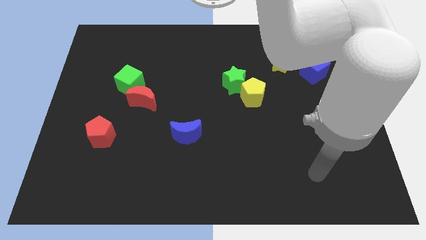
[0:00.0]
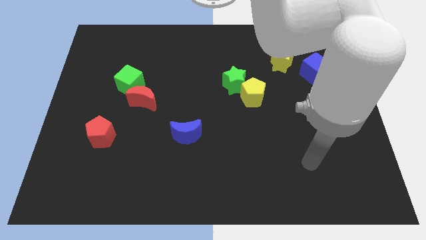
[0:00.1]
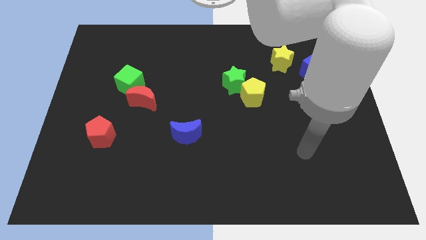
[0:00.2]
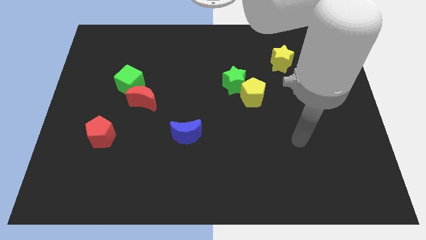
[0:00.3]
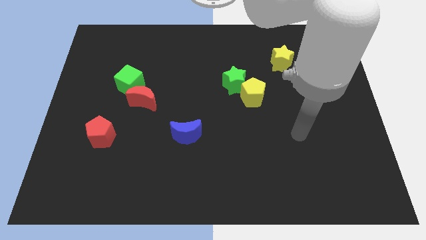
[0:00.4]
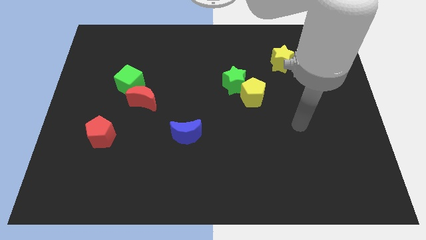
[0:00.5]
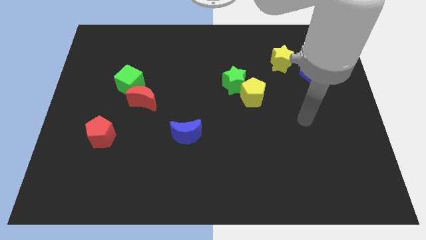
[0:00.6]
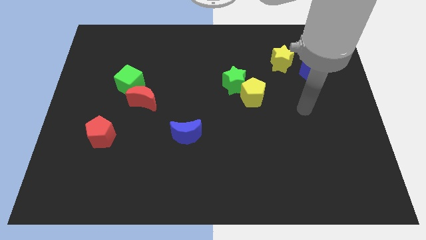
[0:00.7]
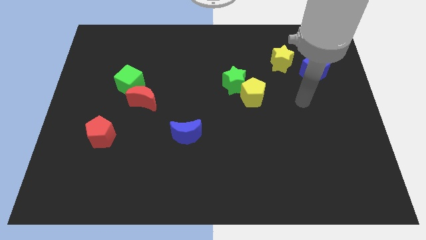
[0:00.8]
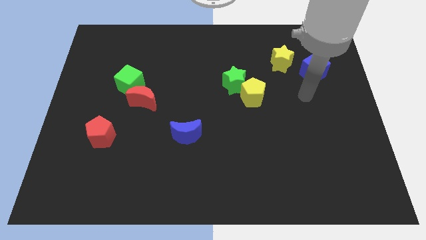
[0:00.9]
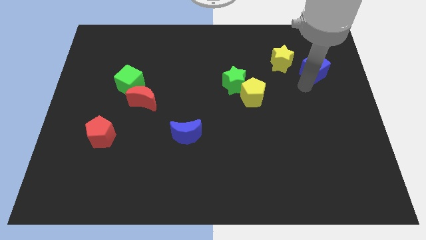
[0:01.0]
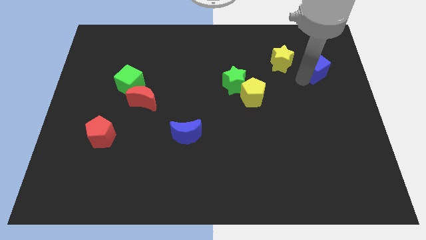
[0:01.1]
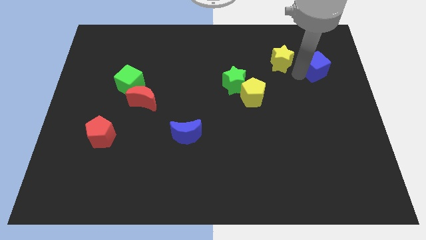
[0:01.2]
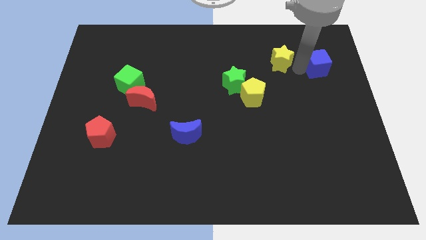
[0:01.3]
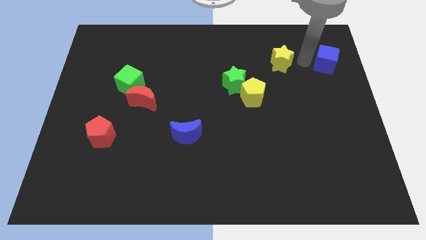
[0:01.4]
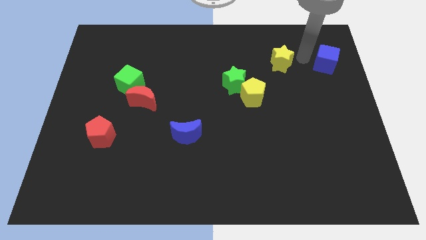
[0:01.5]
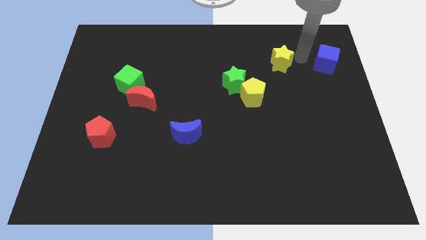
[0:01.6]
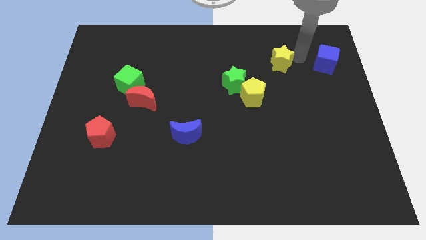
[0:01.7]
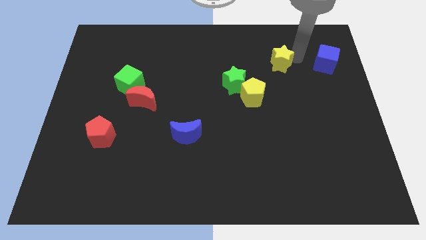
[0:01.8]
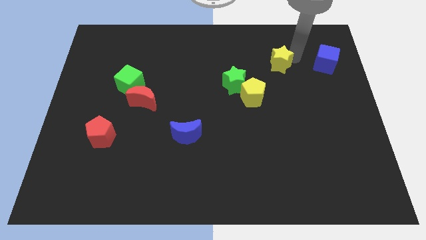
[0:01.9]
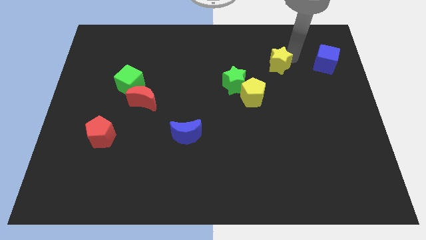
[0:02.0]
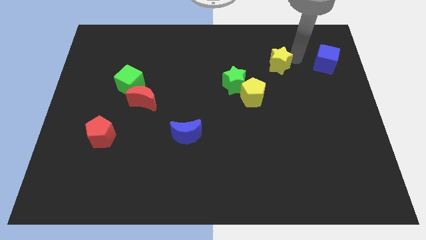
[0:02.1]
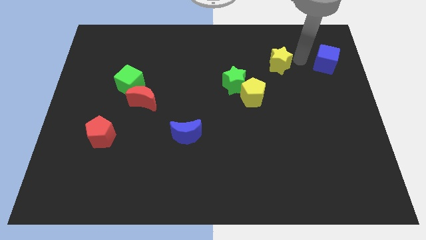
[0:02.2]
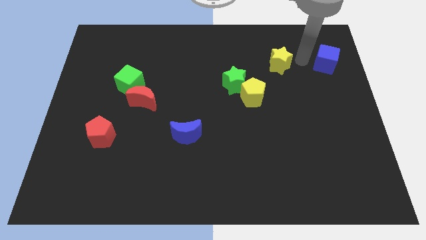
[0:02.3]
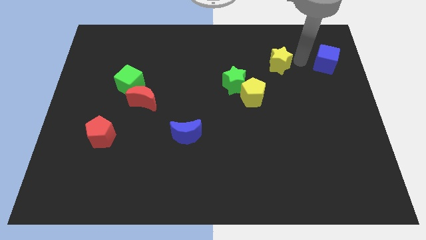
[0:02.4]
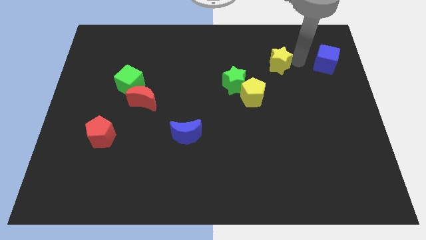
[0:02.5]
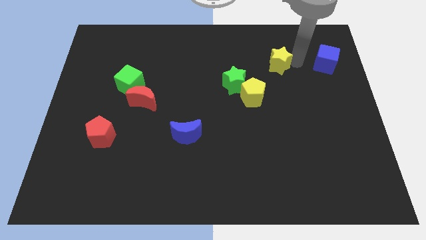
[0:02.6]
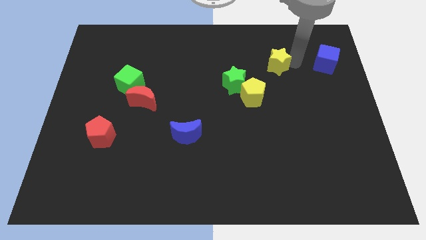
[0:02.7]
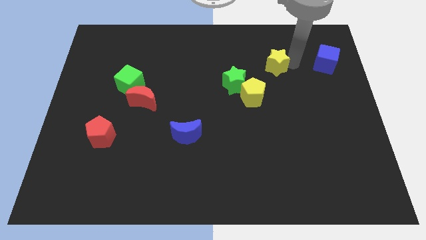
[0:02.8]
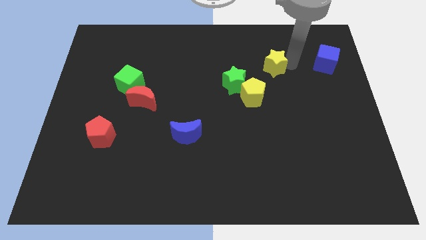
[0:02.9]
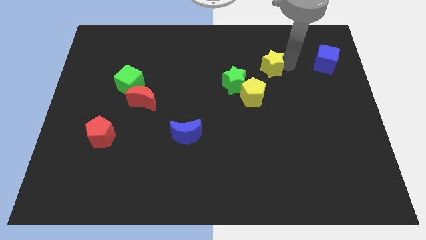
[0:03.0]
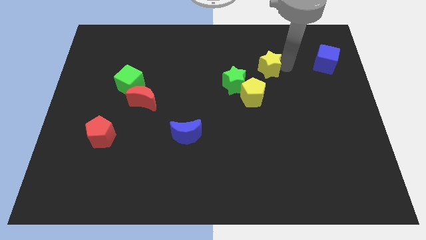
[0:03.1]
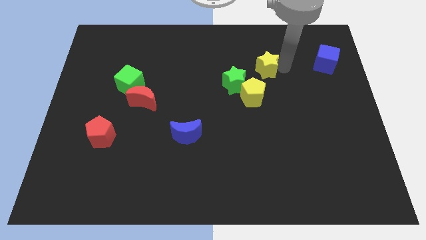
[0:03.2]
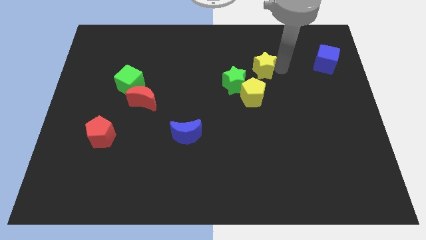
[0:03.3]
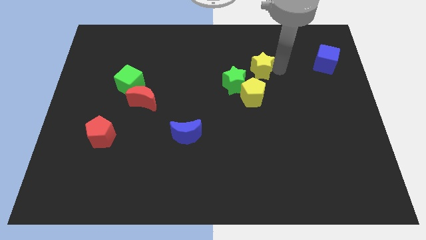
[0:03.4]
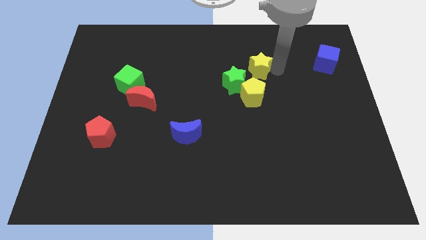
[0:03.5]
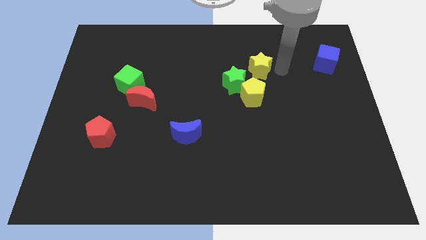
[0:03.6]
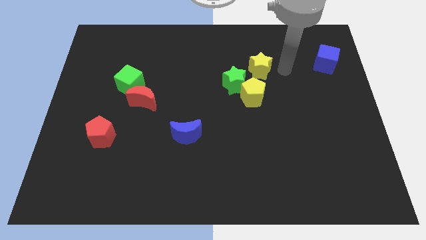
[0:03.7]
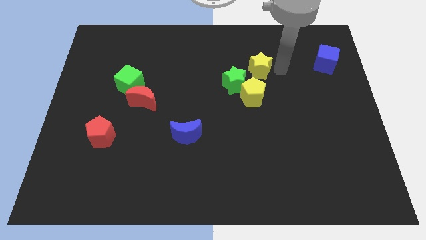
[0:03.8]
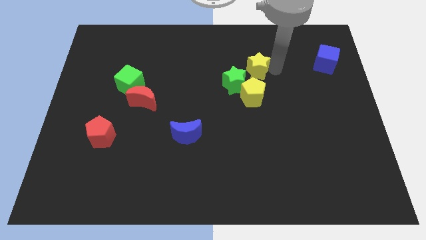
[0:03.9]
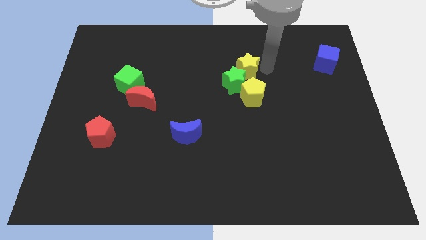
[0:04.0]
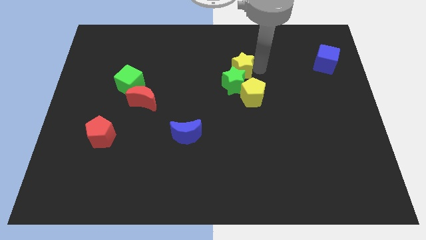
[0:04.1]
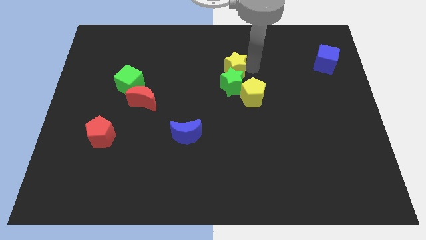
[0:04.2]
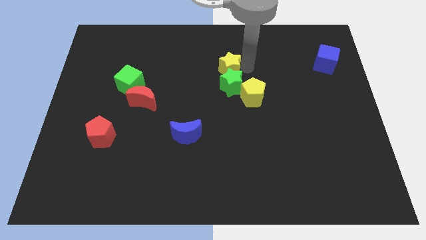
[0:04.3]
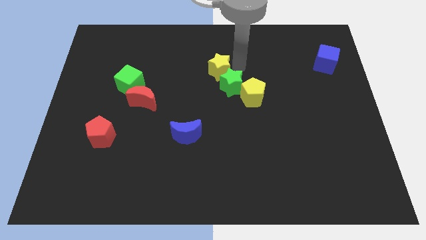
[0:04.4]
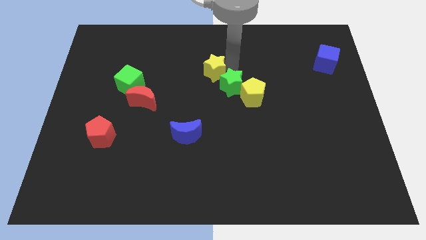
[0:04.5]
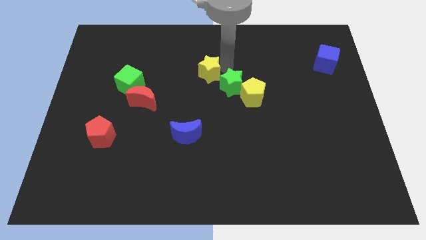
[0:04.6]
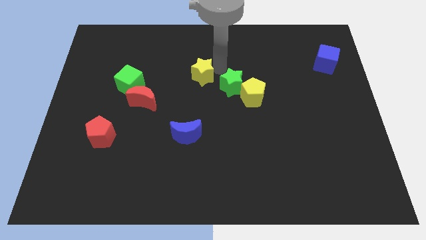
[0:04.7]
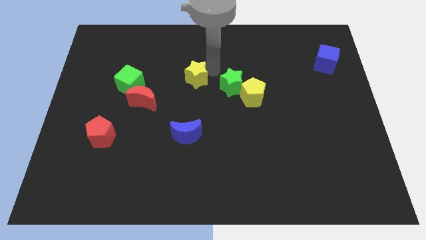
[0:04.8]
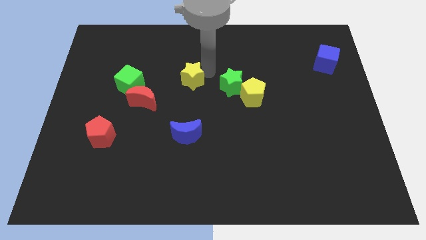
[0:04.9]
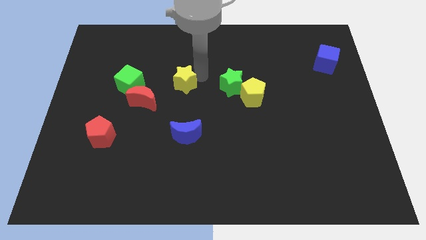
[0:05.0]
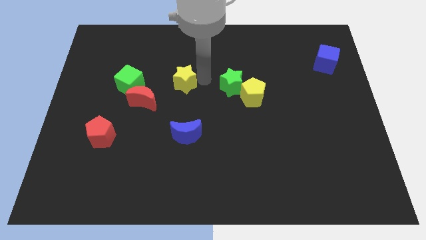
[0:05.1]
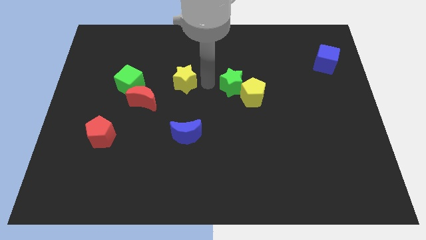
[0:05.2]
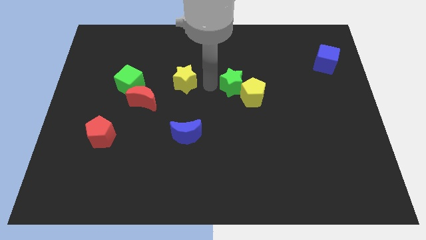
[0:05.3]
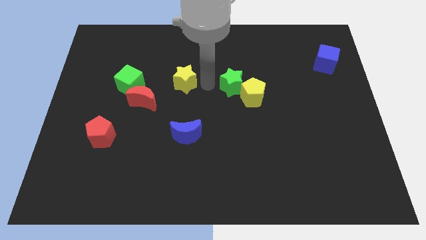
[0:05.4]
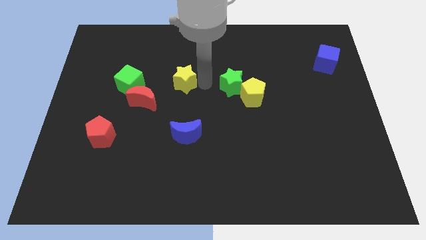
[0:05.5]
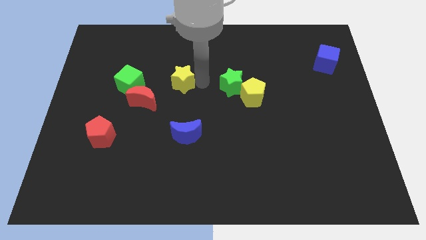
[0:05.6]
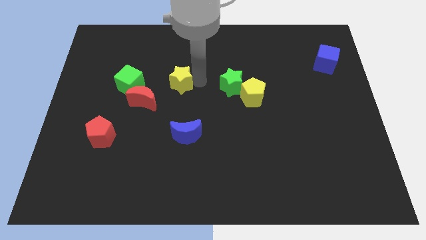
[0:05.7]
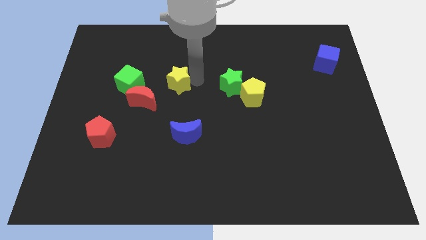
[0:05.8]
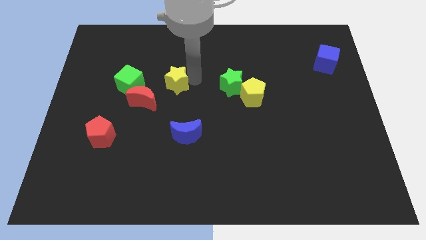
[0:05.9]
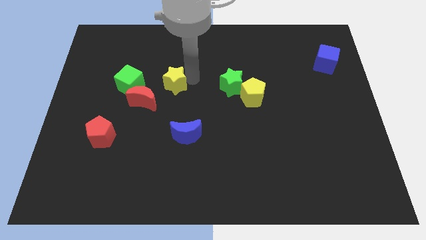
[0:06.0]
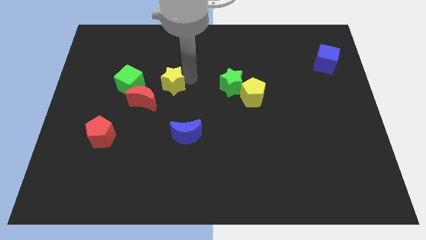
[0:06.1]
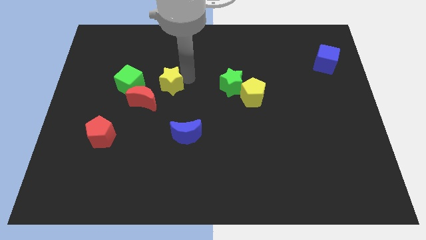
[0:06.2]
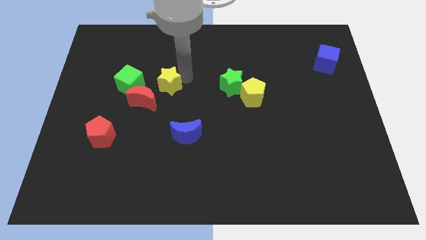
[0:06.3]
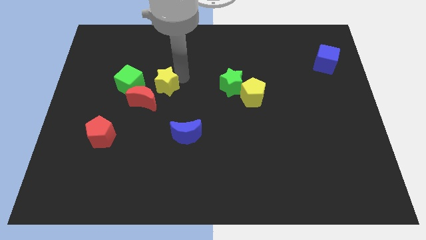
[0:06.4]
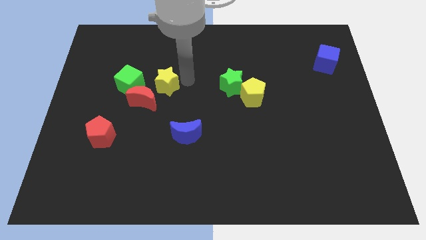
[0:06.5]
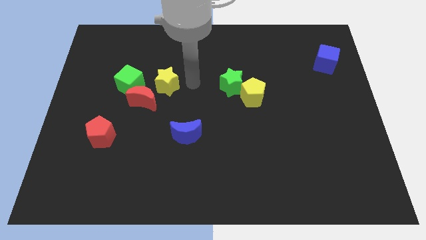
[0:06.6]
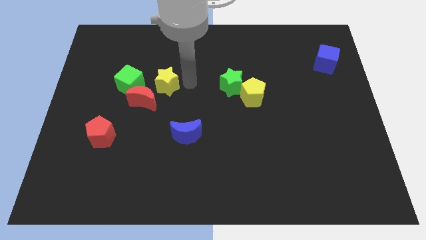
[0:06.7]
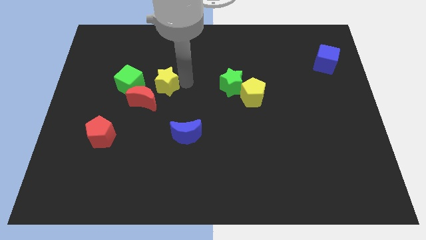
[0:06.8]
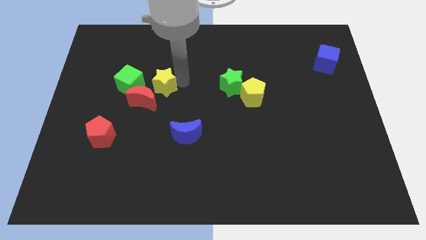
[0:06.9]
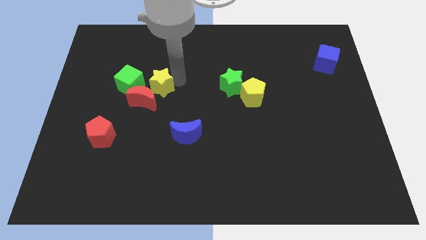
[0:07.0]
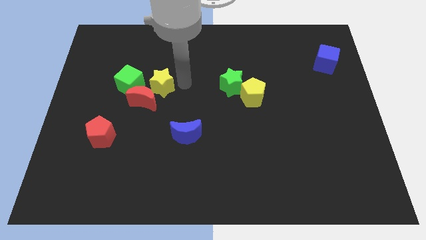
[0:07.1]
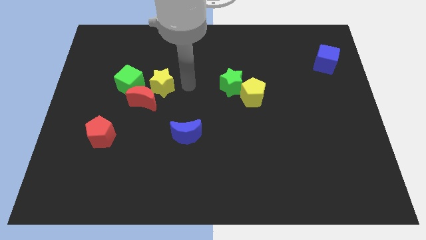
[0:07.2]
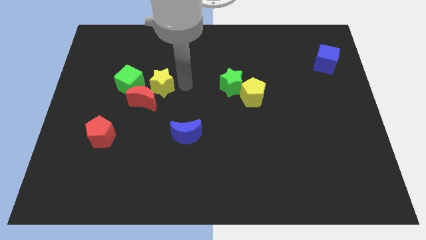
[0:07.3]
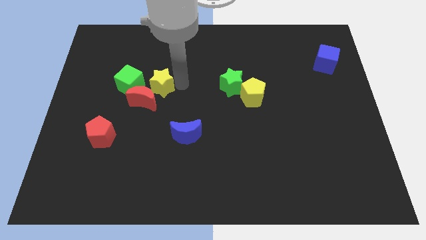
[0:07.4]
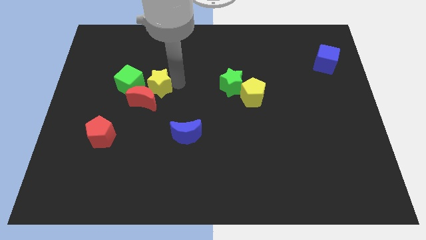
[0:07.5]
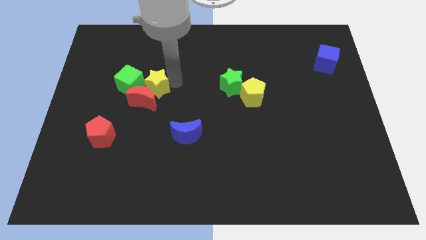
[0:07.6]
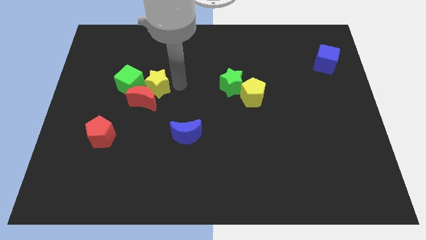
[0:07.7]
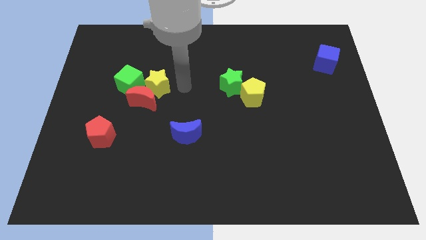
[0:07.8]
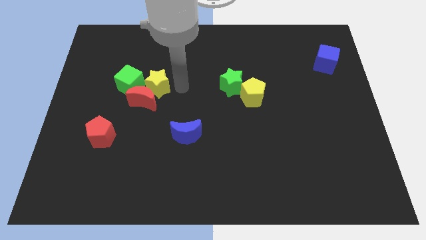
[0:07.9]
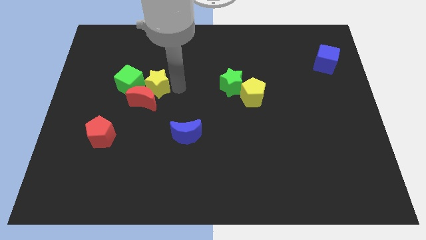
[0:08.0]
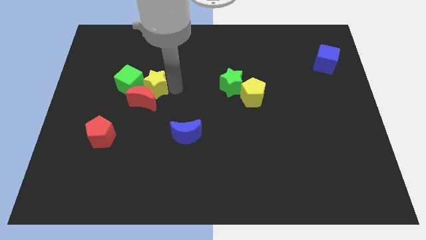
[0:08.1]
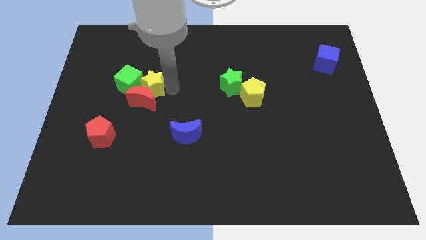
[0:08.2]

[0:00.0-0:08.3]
slide the yellow star towards the green cube
